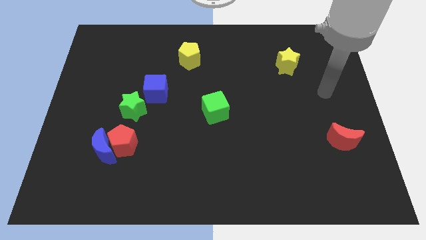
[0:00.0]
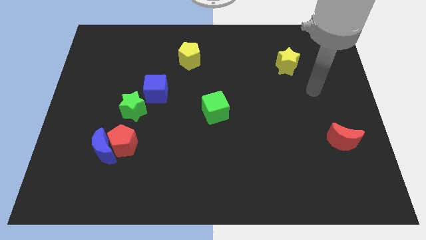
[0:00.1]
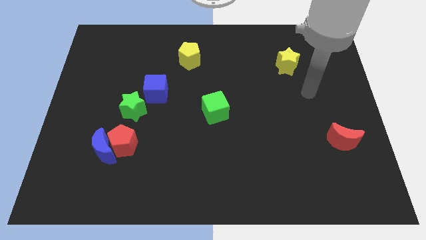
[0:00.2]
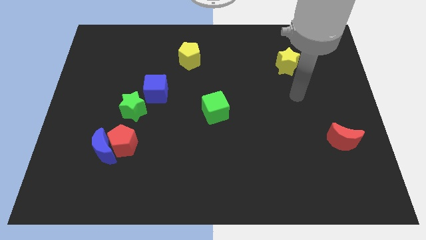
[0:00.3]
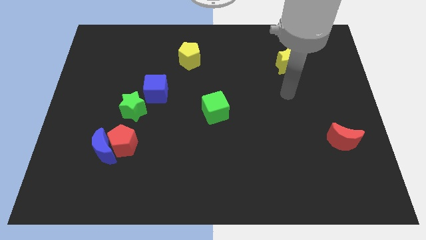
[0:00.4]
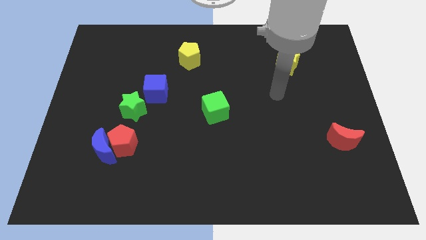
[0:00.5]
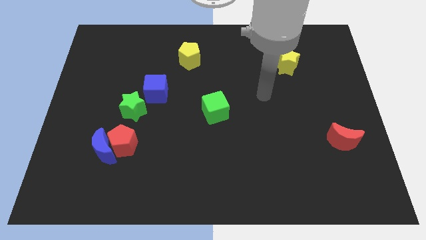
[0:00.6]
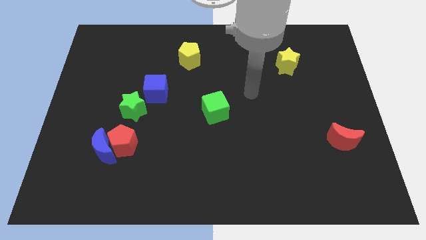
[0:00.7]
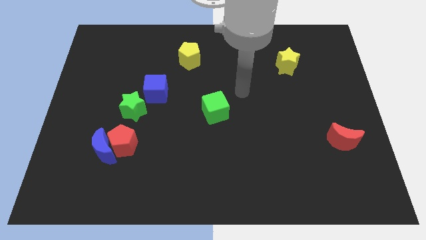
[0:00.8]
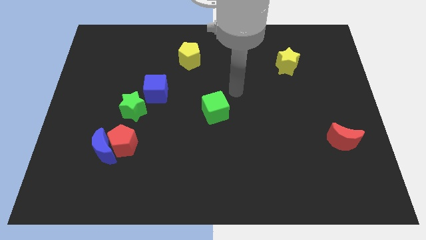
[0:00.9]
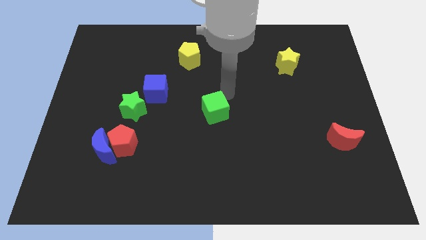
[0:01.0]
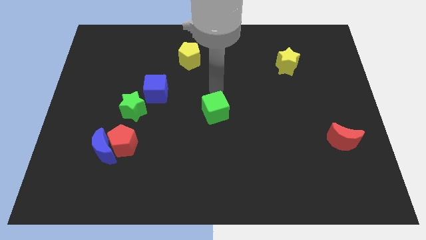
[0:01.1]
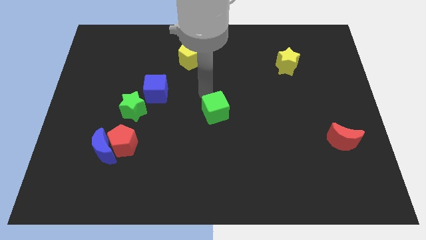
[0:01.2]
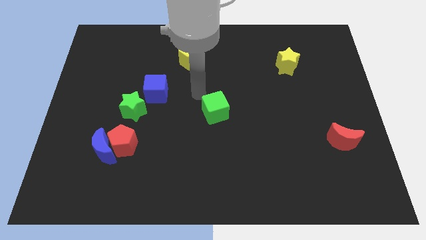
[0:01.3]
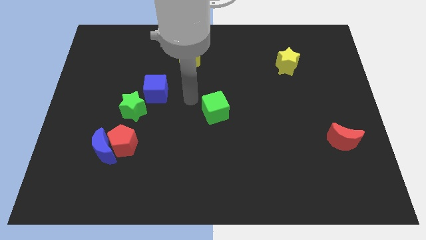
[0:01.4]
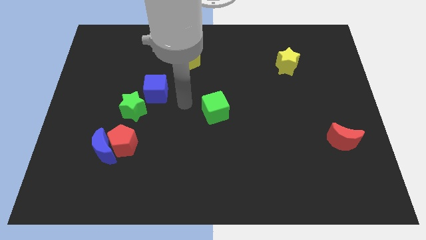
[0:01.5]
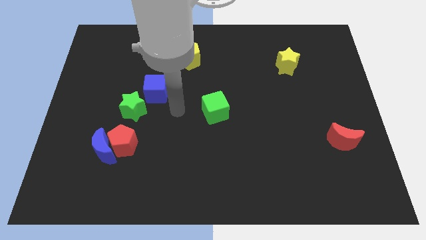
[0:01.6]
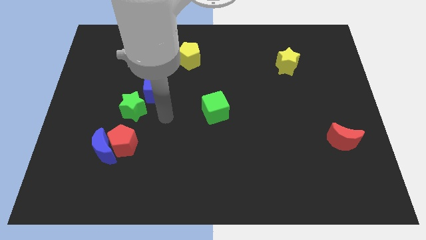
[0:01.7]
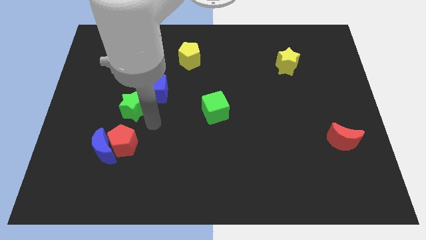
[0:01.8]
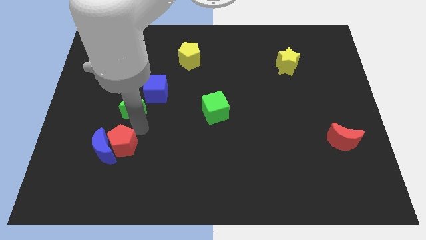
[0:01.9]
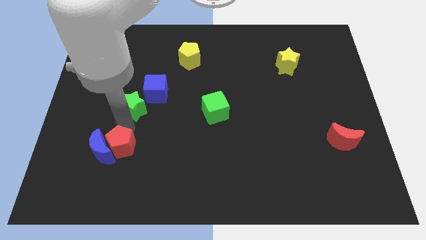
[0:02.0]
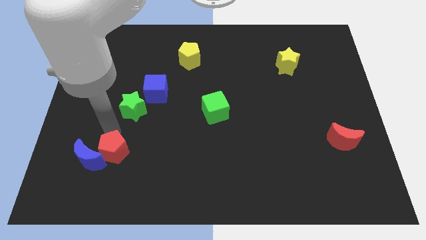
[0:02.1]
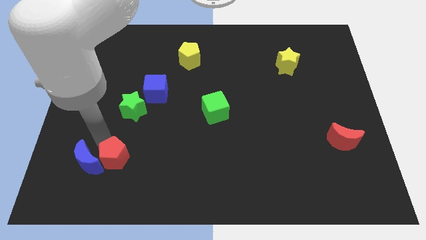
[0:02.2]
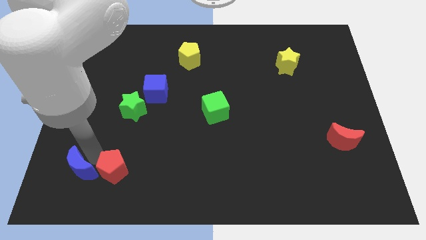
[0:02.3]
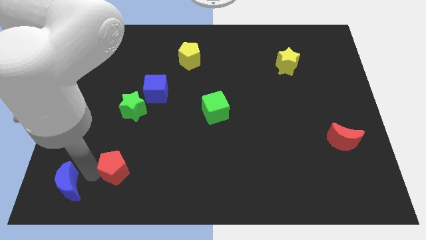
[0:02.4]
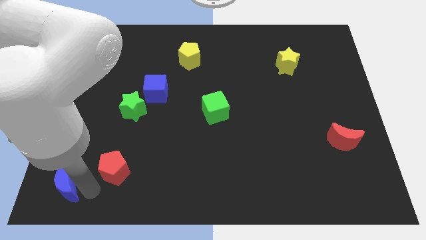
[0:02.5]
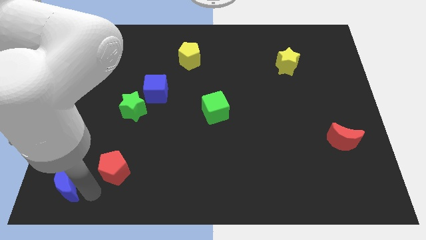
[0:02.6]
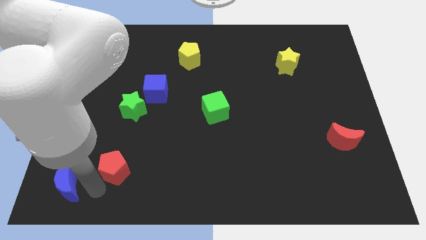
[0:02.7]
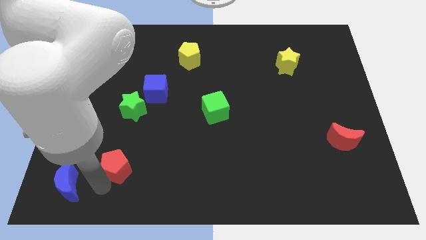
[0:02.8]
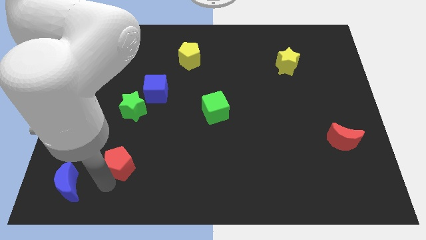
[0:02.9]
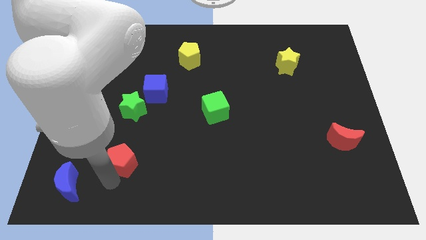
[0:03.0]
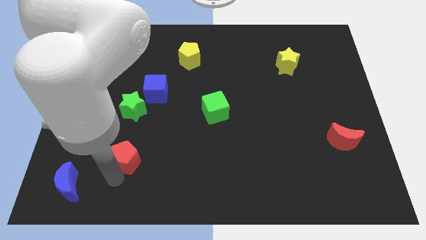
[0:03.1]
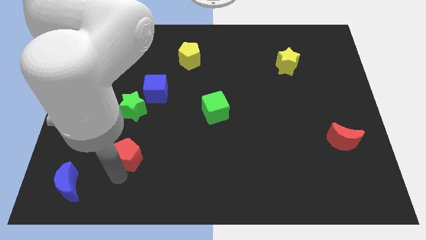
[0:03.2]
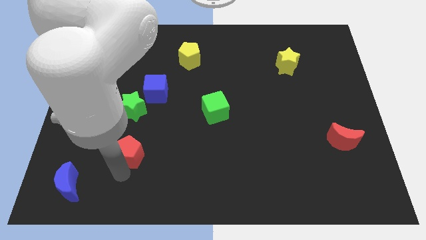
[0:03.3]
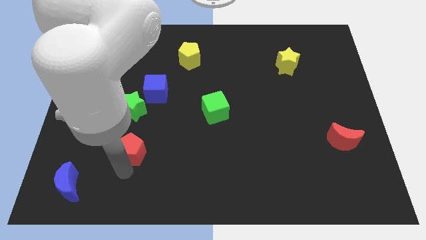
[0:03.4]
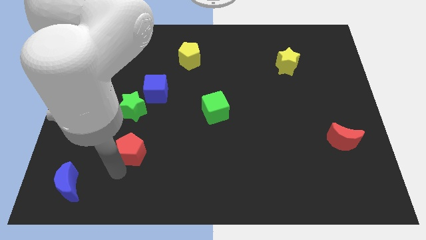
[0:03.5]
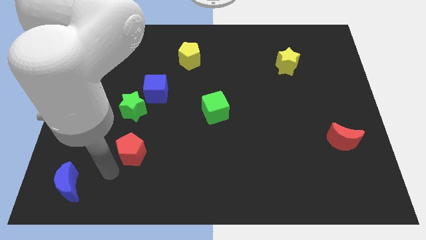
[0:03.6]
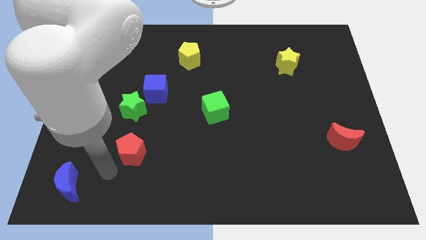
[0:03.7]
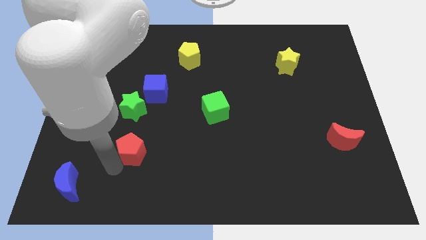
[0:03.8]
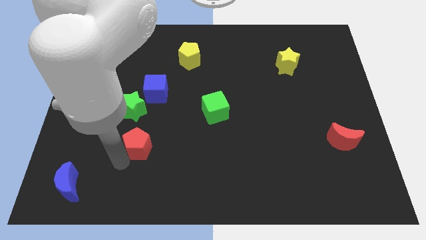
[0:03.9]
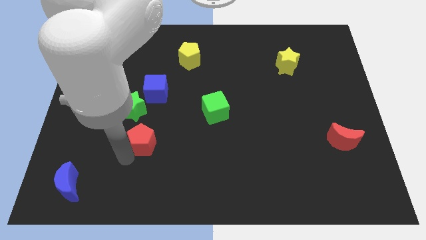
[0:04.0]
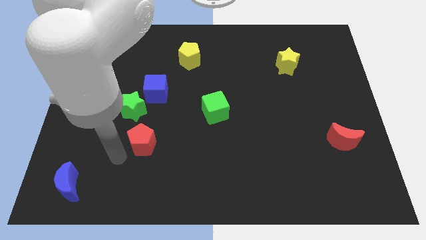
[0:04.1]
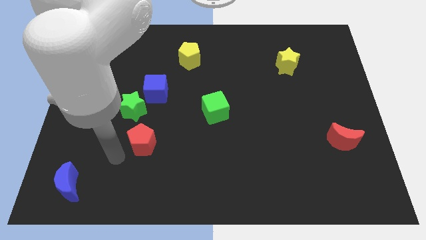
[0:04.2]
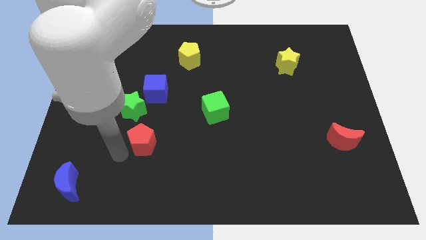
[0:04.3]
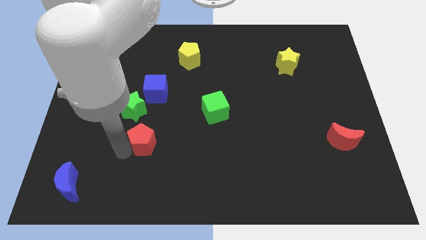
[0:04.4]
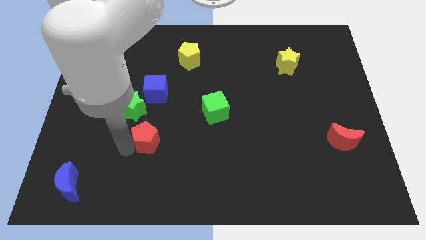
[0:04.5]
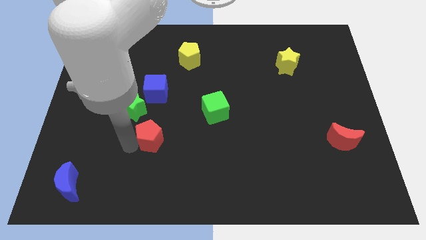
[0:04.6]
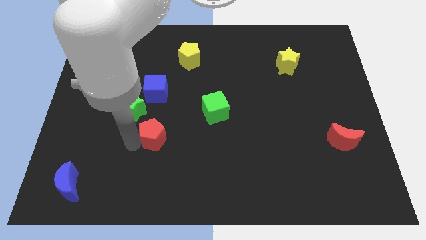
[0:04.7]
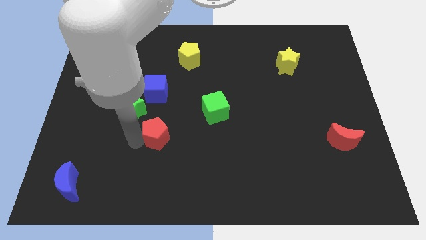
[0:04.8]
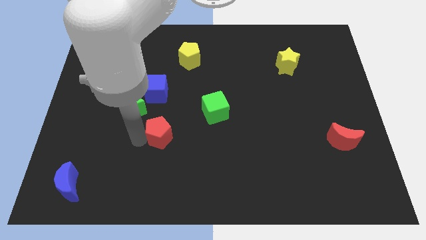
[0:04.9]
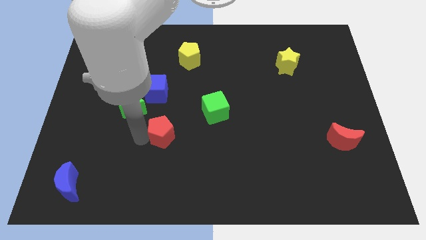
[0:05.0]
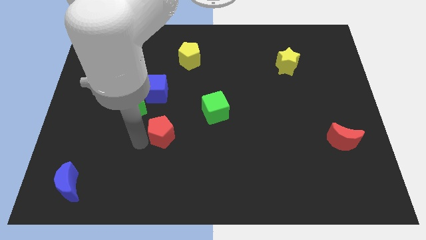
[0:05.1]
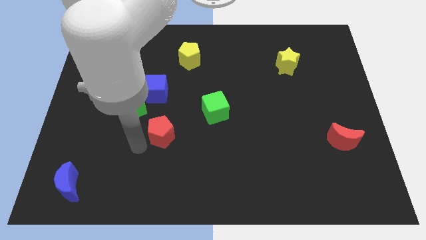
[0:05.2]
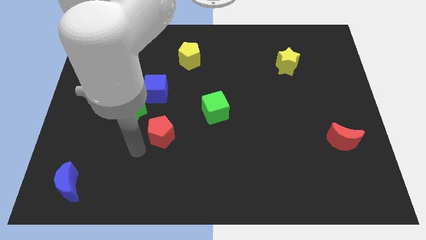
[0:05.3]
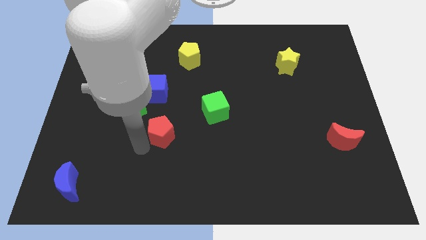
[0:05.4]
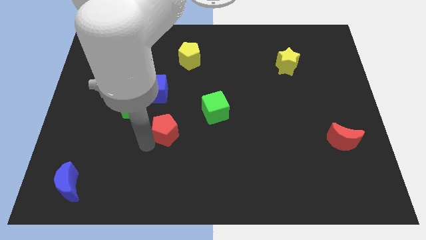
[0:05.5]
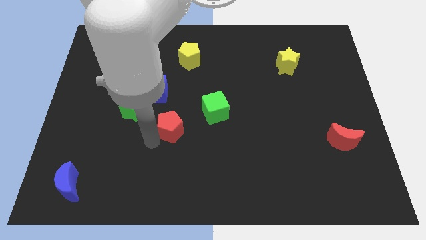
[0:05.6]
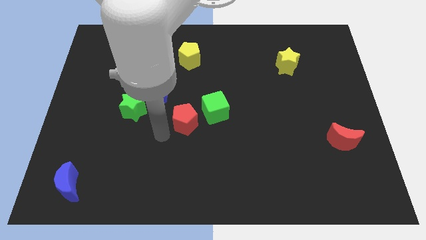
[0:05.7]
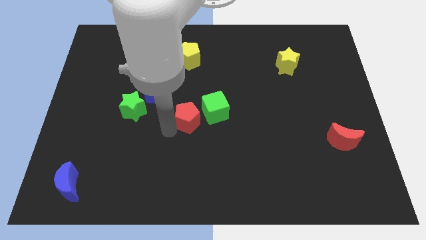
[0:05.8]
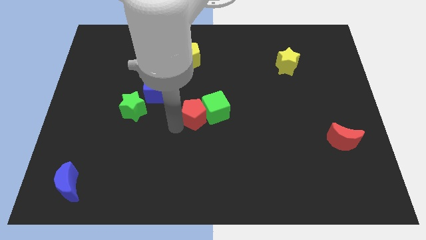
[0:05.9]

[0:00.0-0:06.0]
move the red pentagon next to the green cube

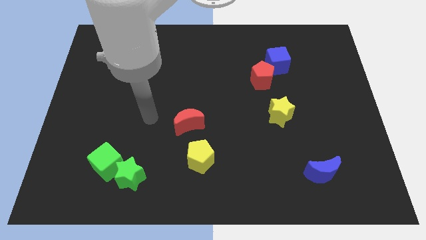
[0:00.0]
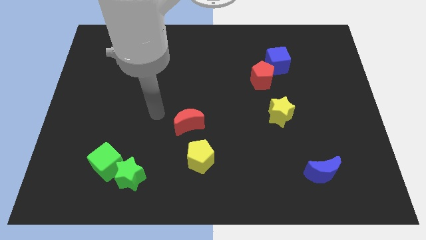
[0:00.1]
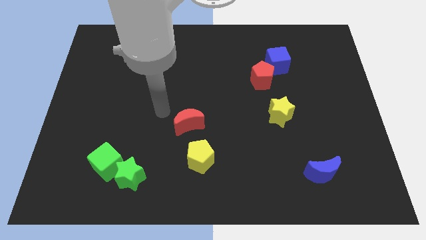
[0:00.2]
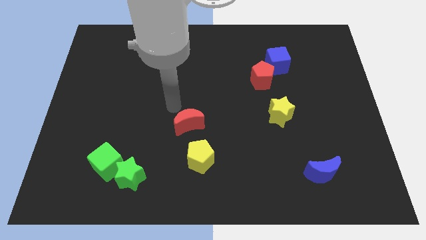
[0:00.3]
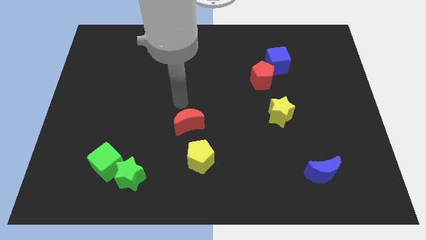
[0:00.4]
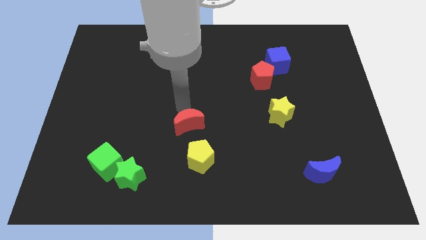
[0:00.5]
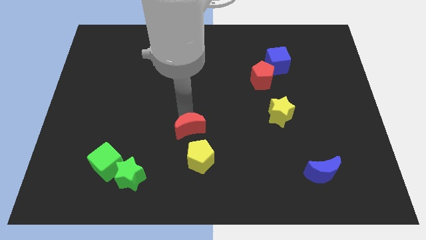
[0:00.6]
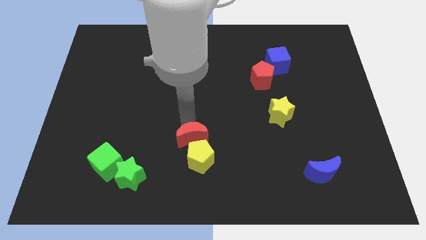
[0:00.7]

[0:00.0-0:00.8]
push the red moon to the yellow pentagon

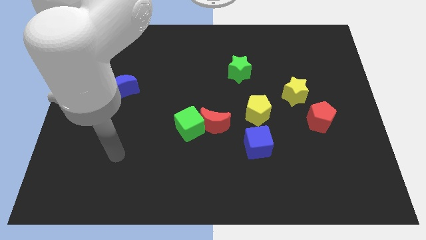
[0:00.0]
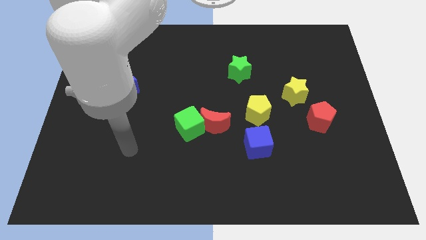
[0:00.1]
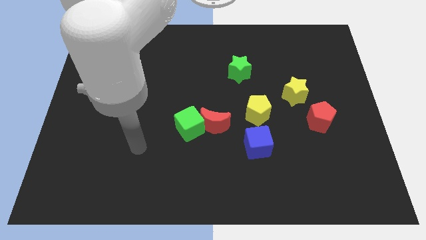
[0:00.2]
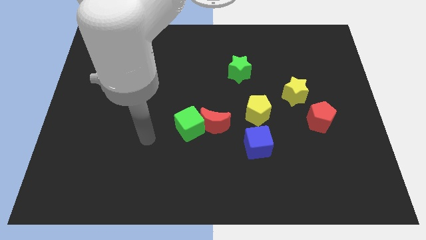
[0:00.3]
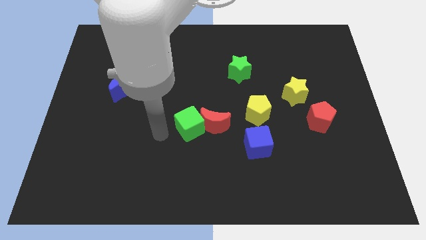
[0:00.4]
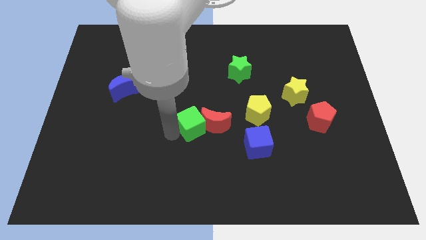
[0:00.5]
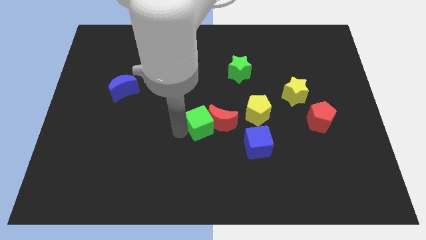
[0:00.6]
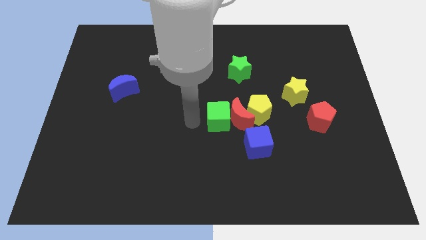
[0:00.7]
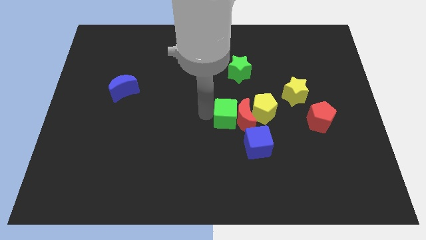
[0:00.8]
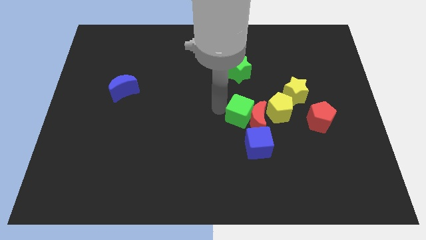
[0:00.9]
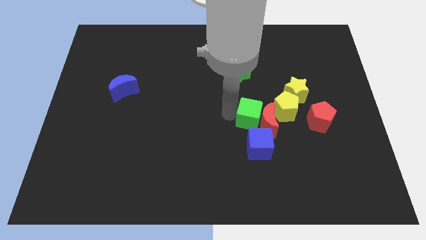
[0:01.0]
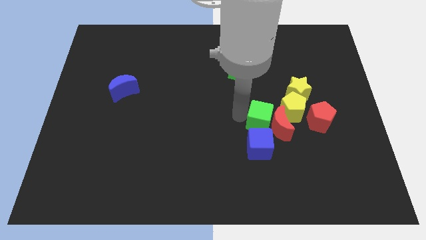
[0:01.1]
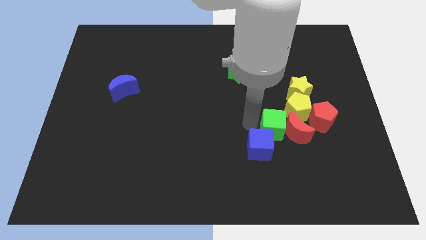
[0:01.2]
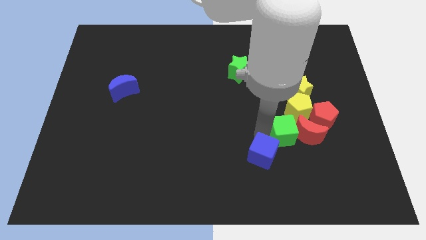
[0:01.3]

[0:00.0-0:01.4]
push the red moon towards the red pentagon
